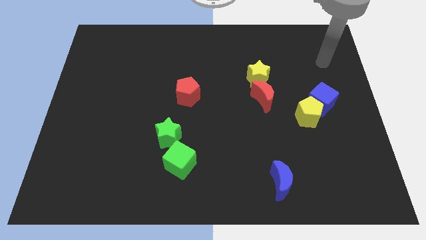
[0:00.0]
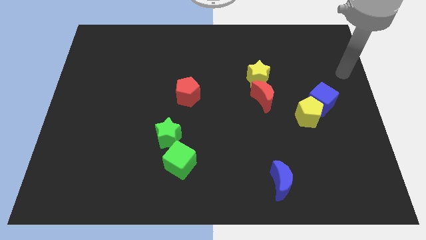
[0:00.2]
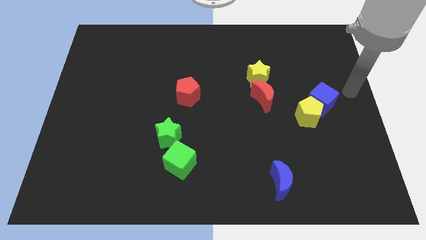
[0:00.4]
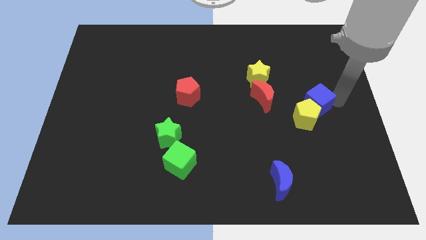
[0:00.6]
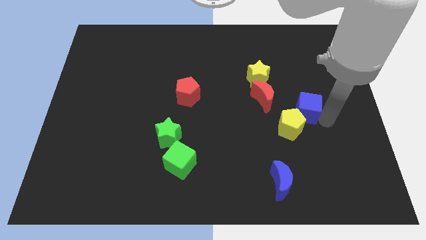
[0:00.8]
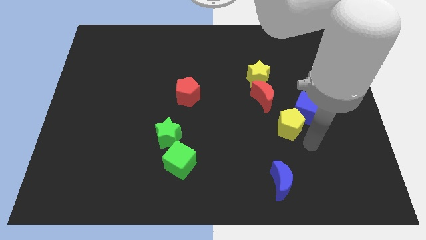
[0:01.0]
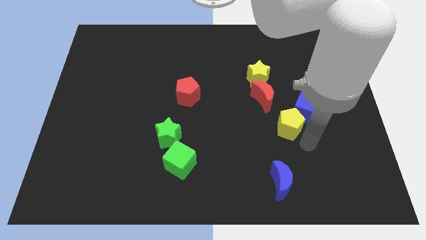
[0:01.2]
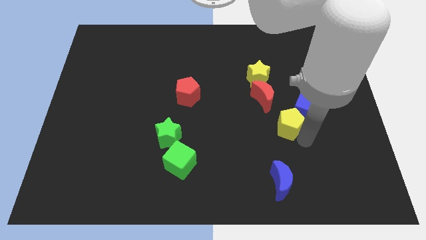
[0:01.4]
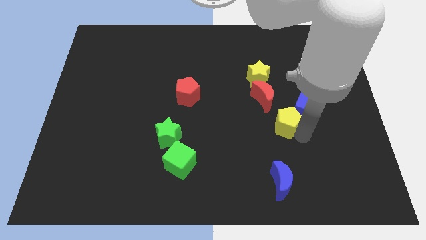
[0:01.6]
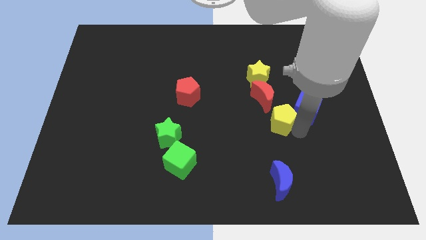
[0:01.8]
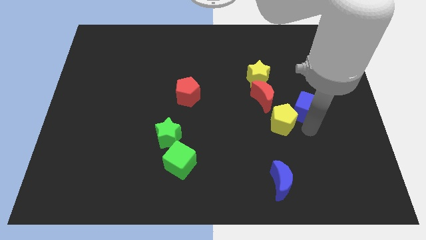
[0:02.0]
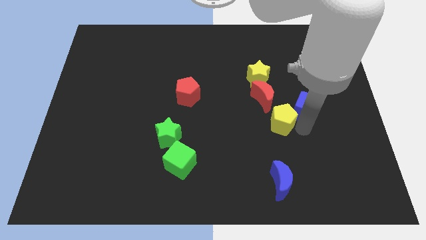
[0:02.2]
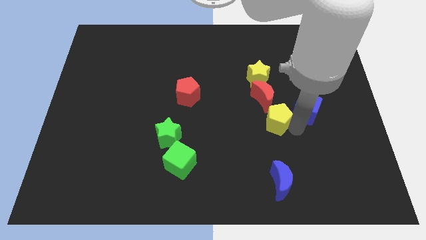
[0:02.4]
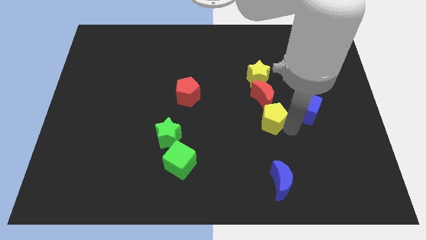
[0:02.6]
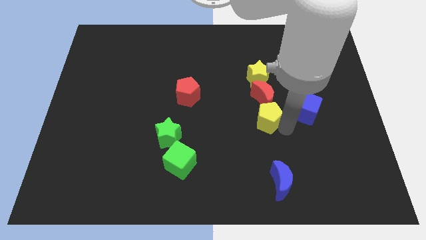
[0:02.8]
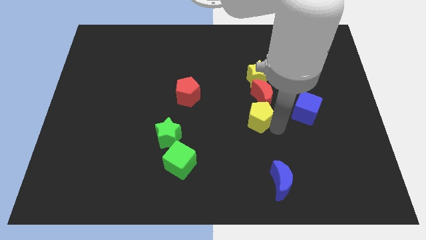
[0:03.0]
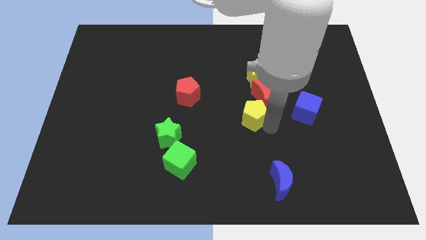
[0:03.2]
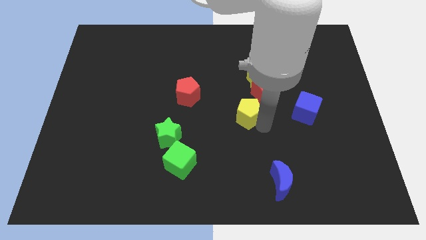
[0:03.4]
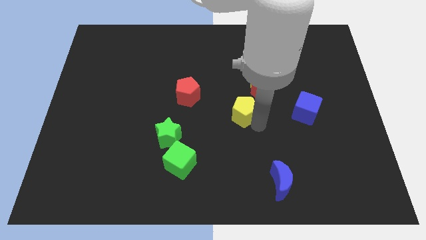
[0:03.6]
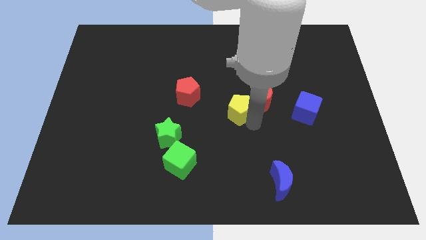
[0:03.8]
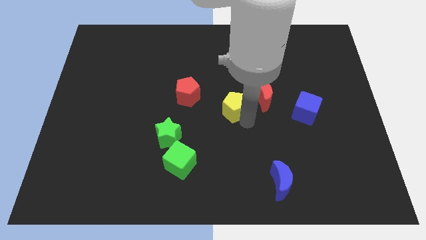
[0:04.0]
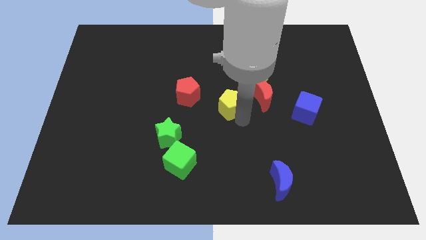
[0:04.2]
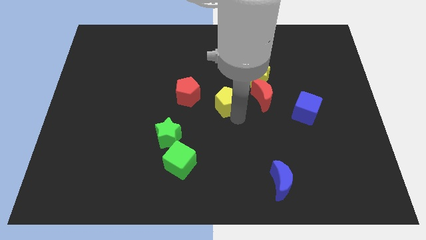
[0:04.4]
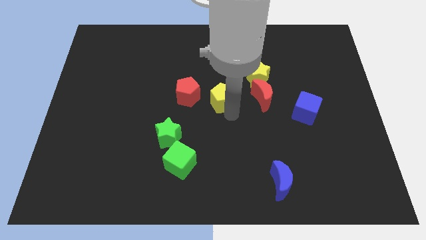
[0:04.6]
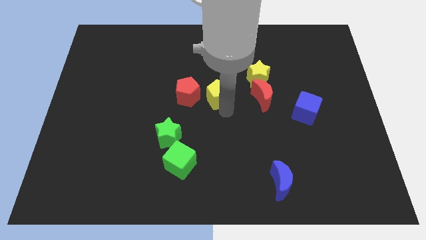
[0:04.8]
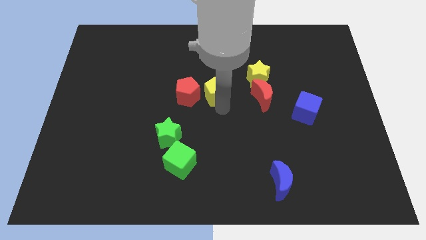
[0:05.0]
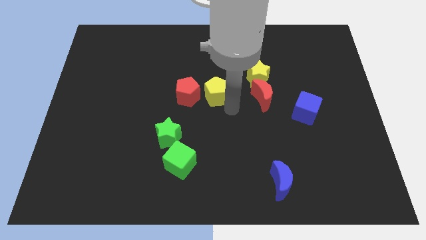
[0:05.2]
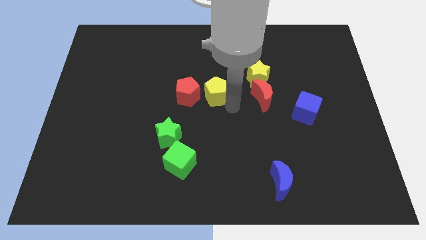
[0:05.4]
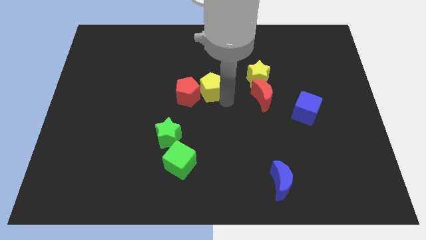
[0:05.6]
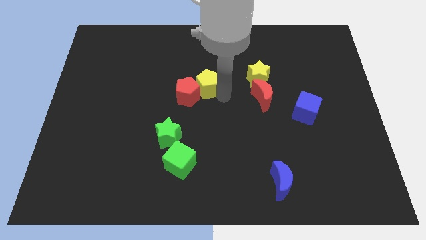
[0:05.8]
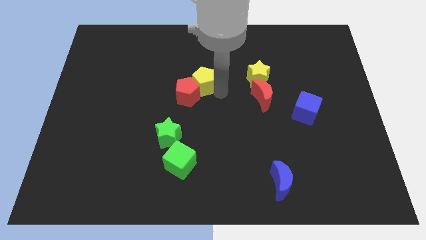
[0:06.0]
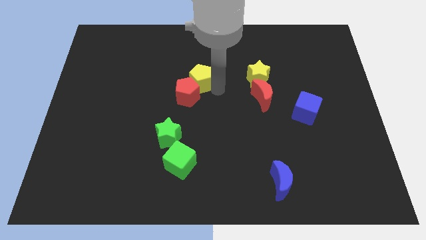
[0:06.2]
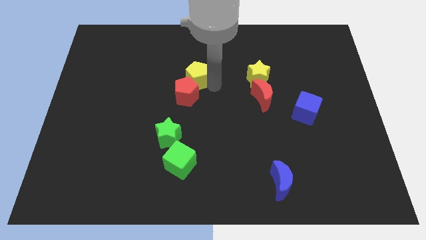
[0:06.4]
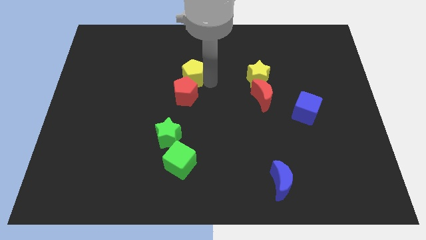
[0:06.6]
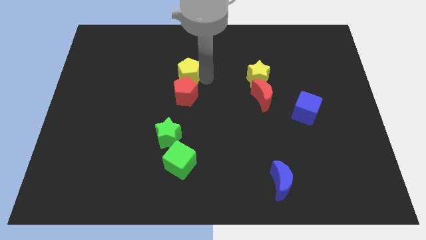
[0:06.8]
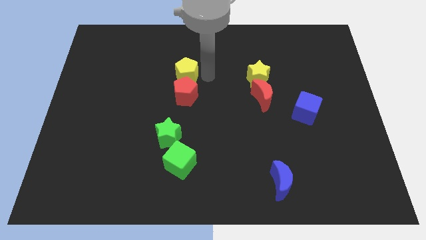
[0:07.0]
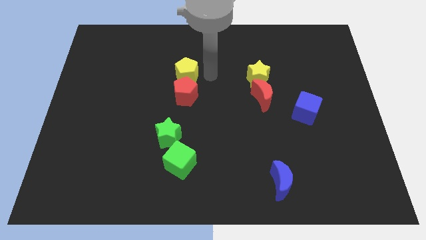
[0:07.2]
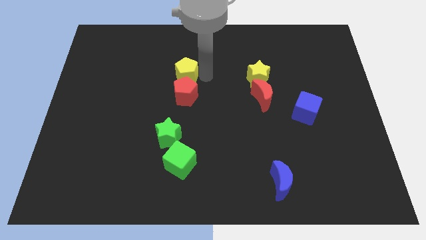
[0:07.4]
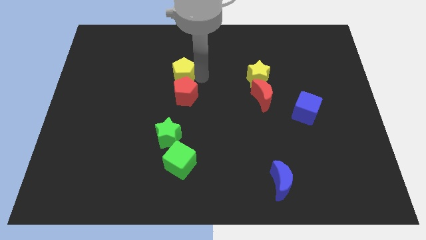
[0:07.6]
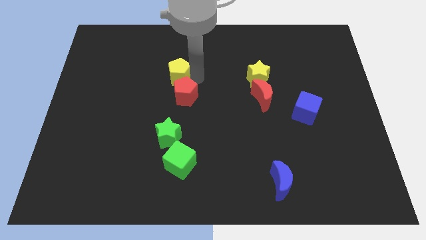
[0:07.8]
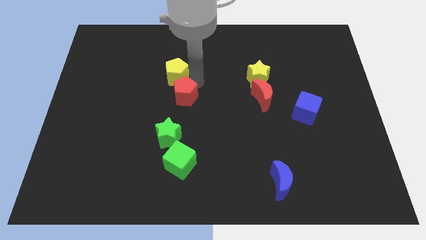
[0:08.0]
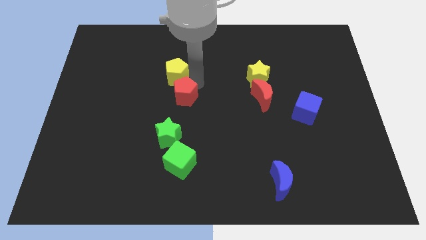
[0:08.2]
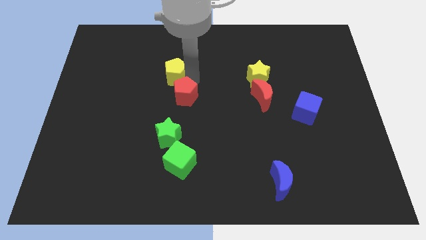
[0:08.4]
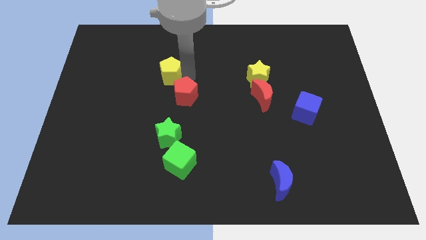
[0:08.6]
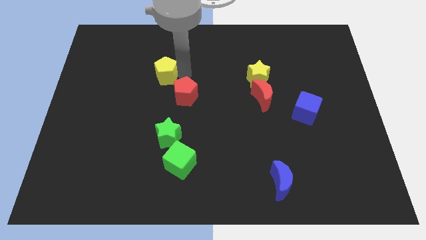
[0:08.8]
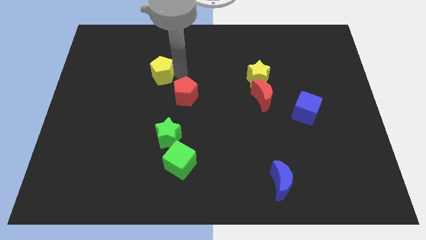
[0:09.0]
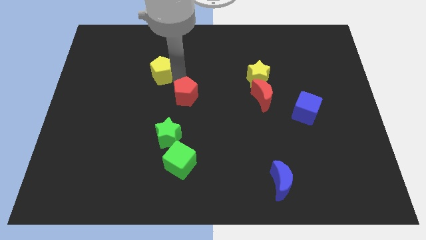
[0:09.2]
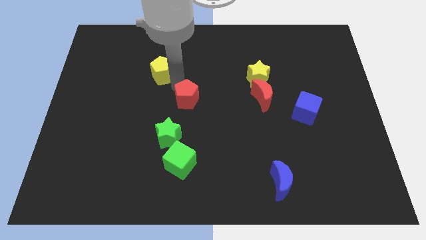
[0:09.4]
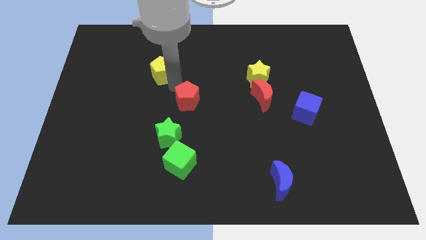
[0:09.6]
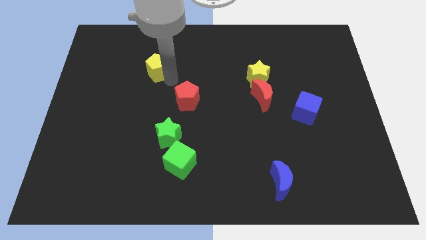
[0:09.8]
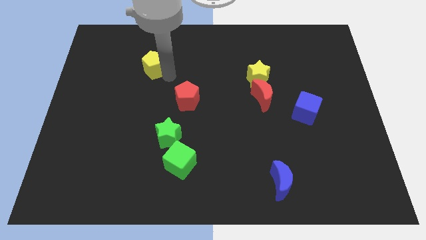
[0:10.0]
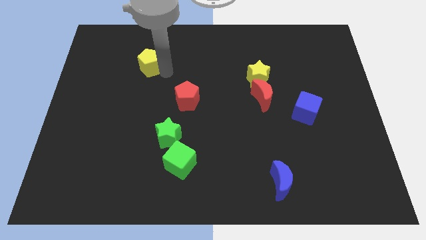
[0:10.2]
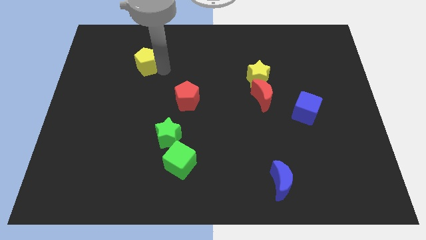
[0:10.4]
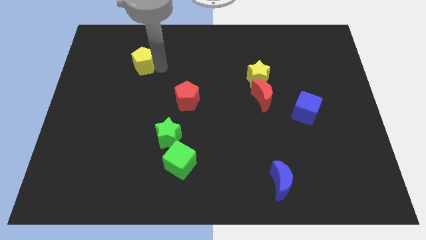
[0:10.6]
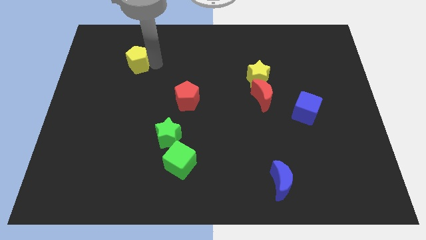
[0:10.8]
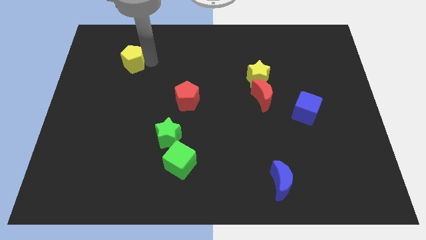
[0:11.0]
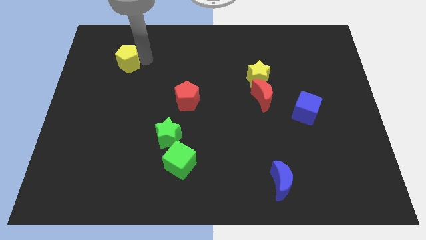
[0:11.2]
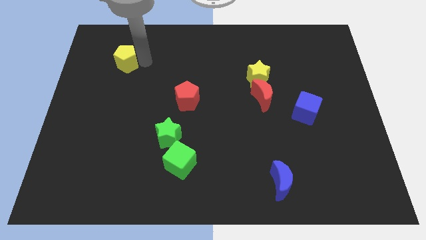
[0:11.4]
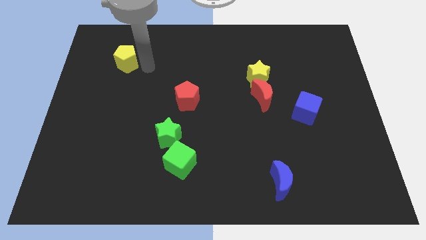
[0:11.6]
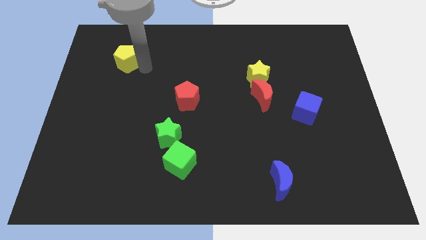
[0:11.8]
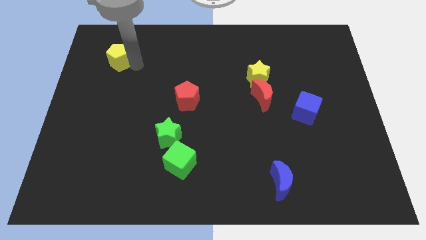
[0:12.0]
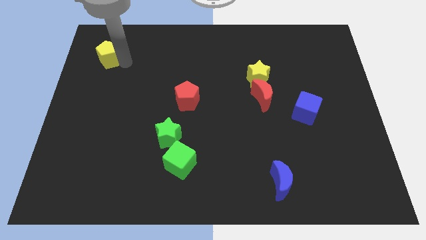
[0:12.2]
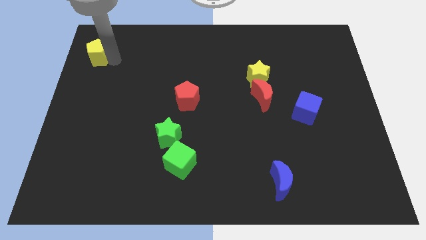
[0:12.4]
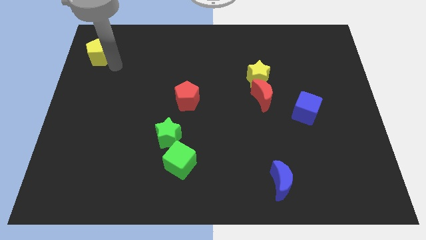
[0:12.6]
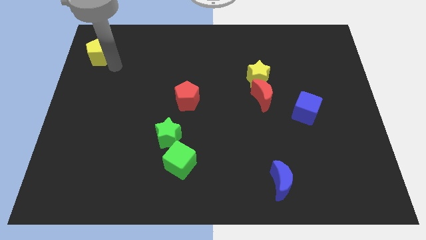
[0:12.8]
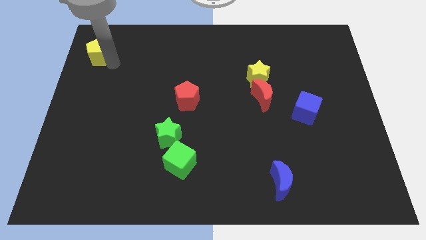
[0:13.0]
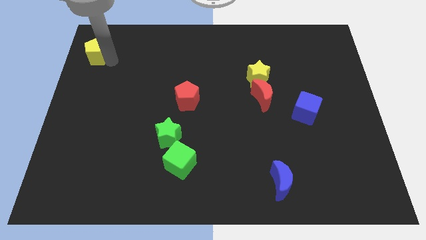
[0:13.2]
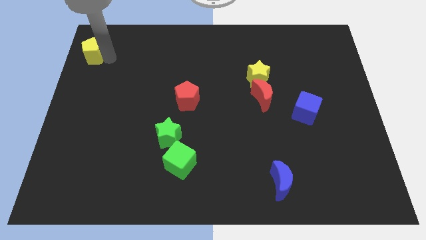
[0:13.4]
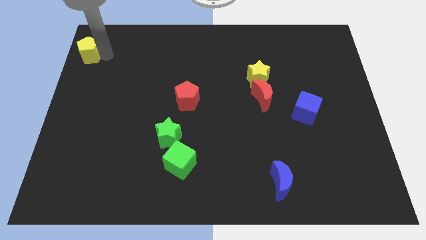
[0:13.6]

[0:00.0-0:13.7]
push the yellow pentagon to the top left of the board
